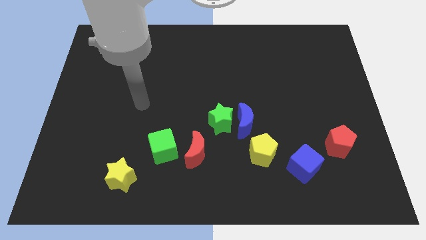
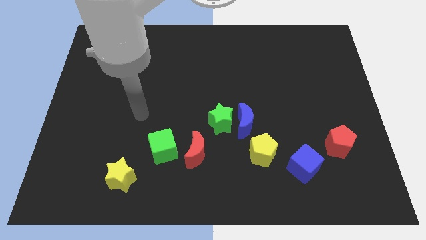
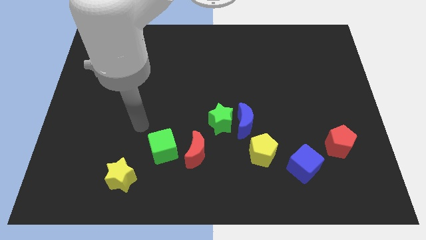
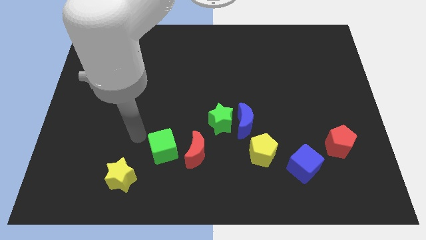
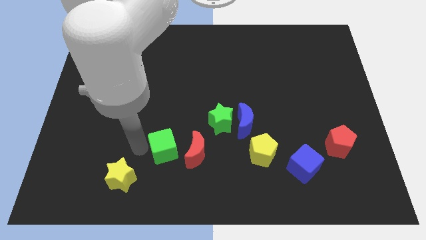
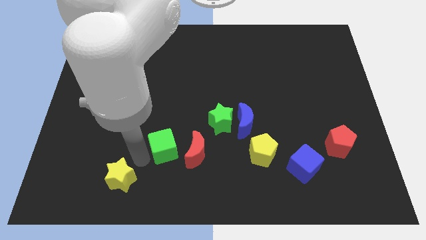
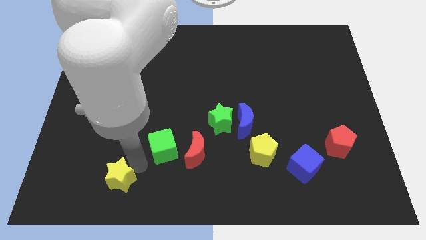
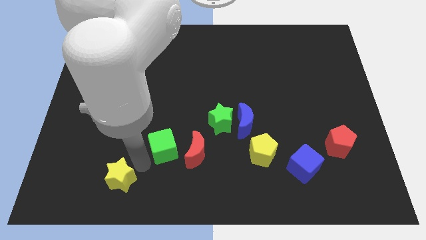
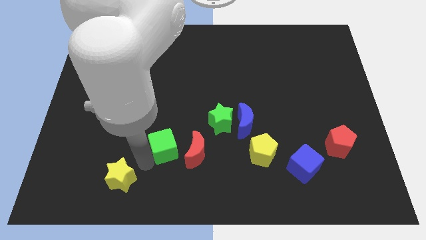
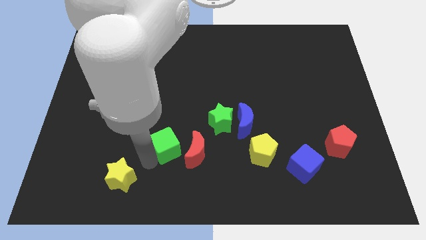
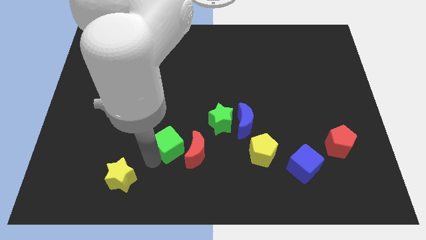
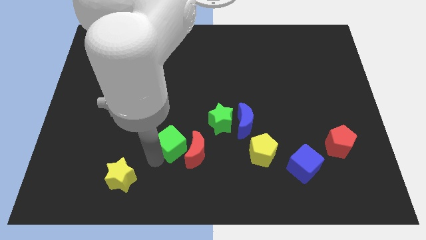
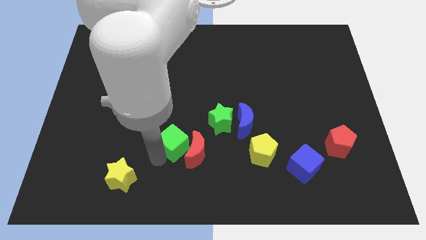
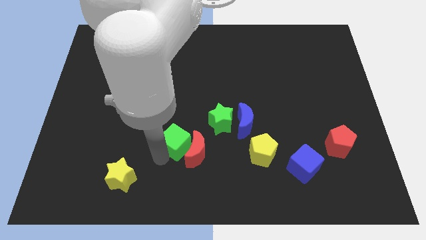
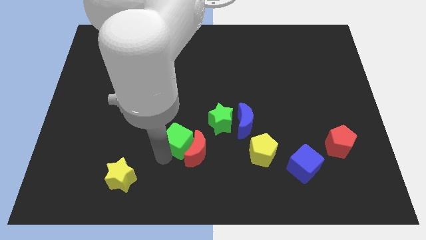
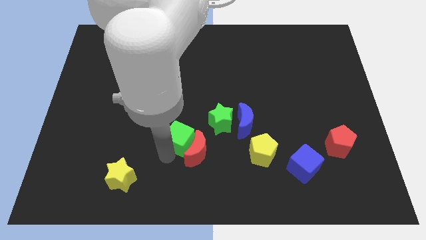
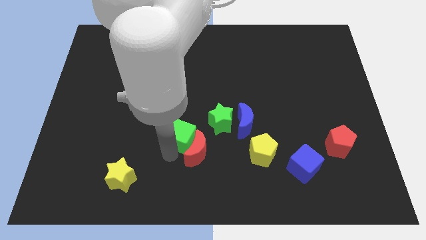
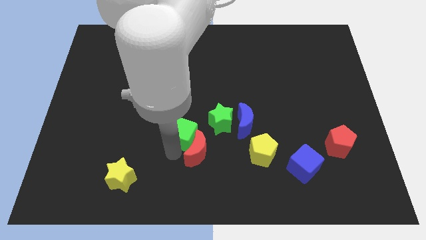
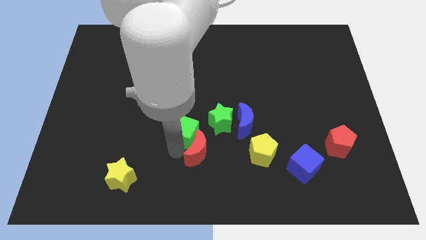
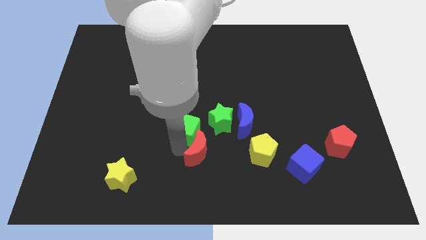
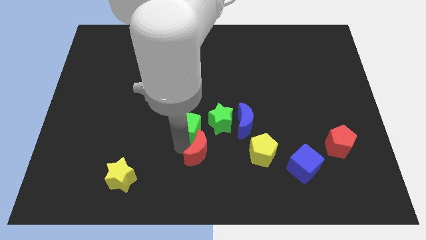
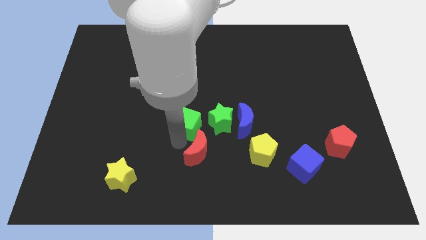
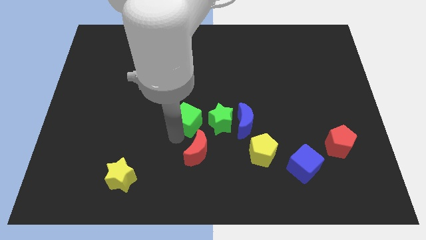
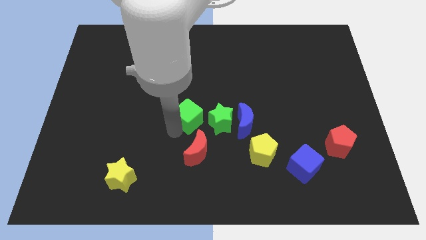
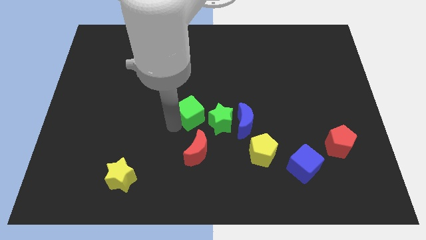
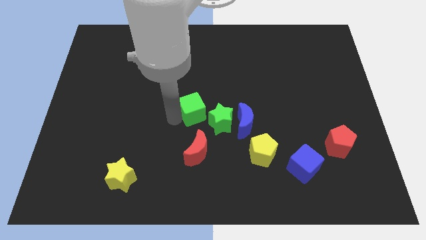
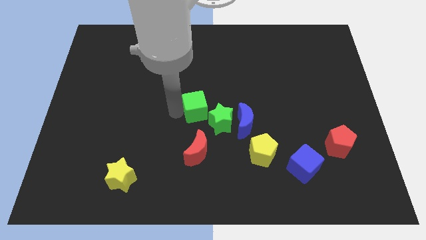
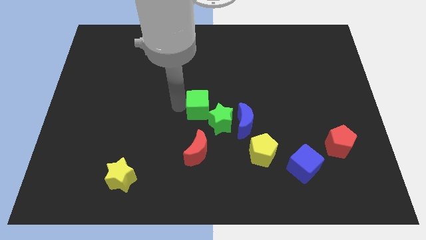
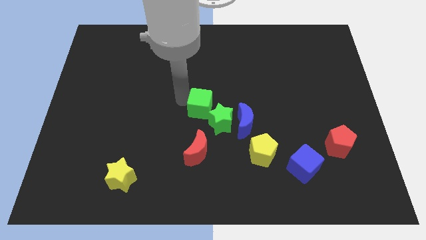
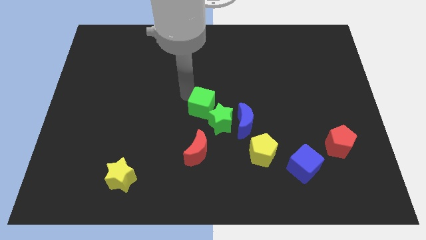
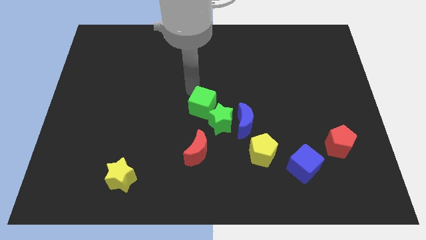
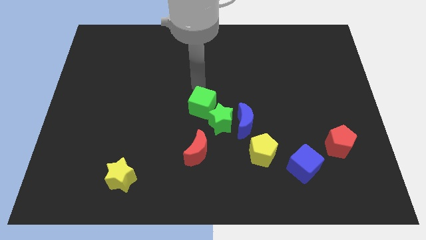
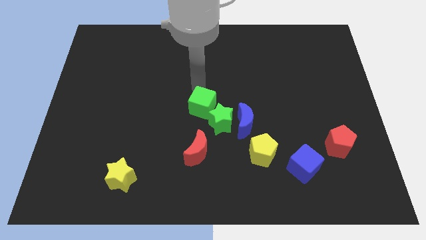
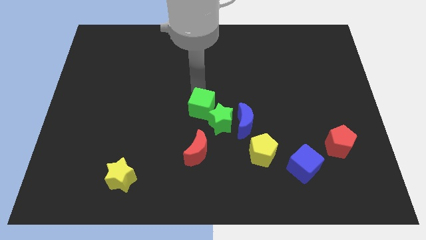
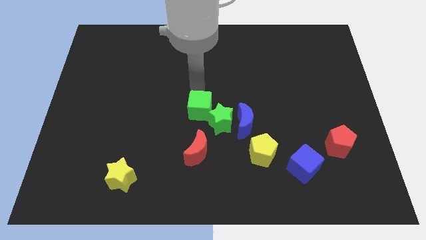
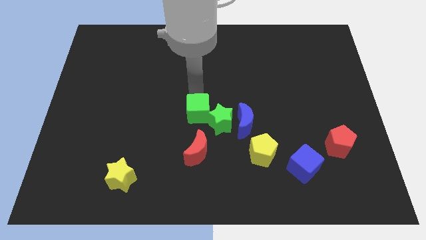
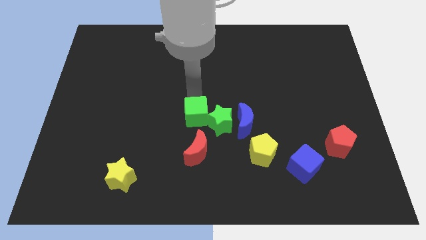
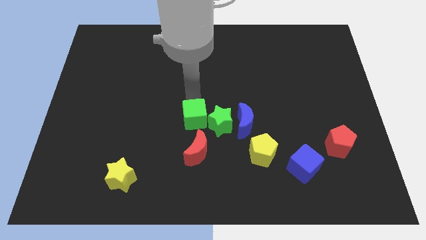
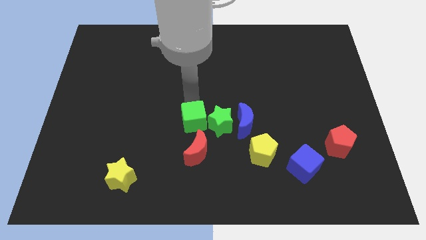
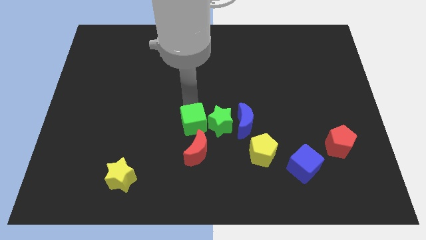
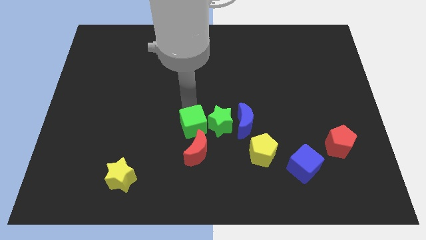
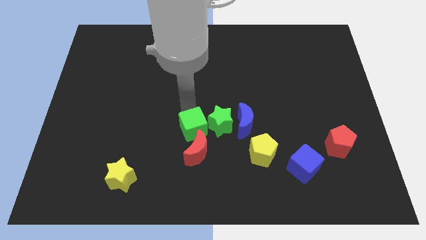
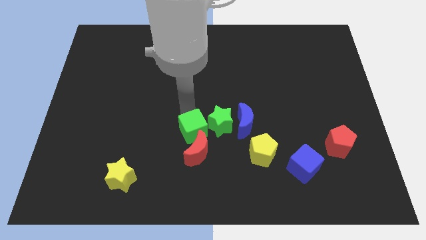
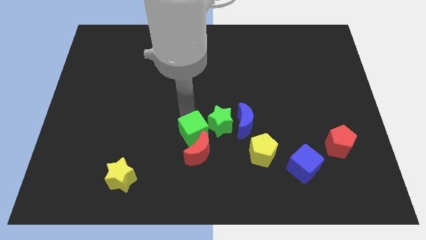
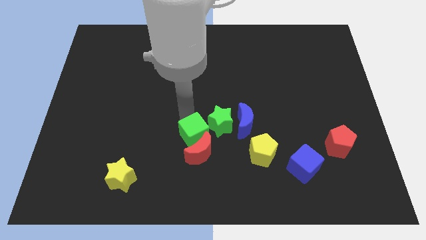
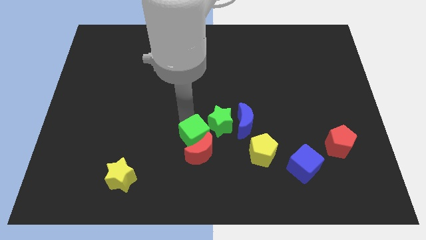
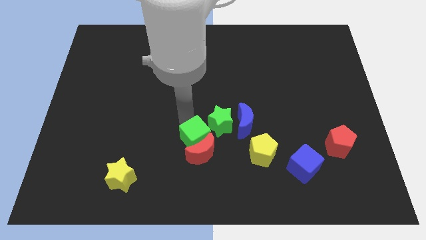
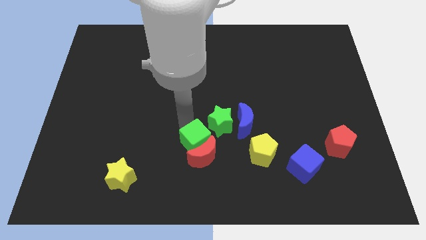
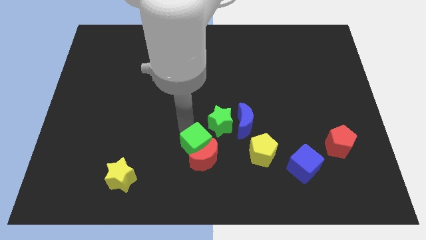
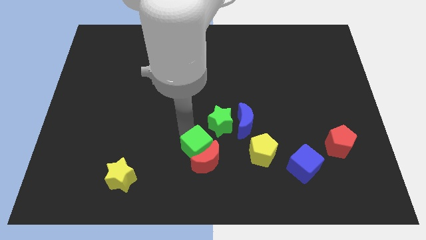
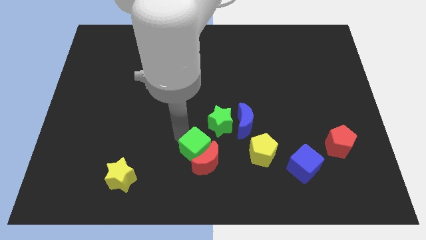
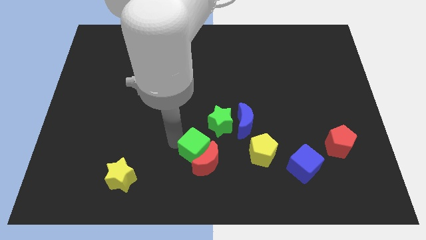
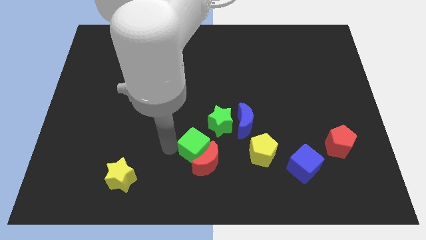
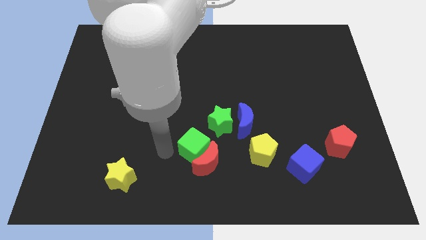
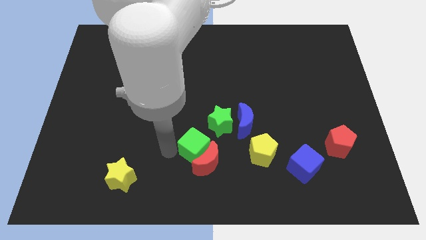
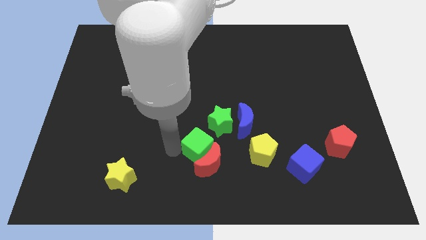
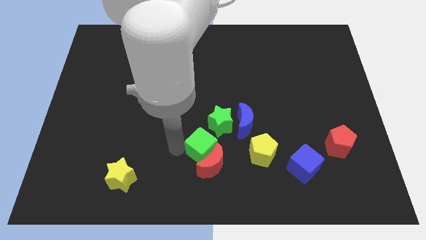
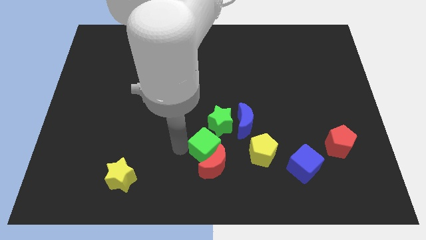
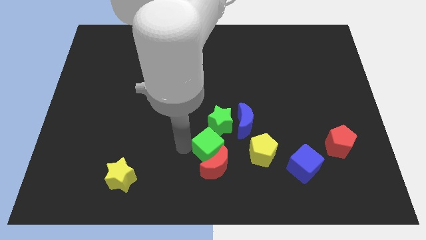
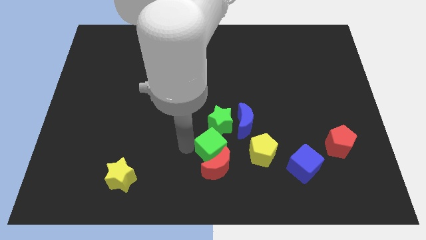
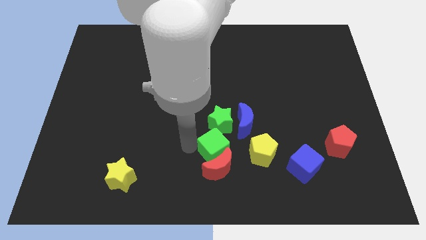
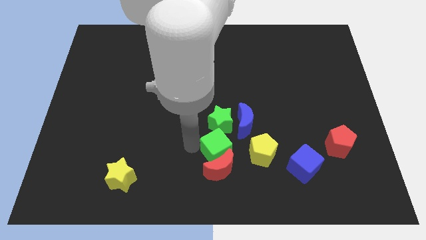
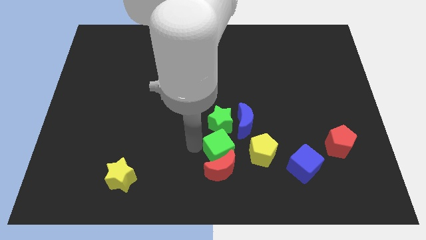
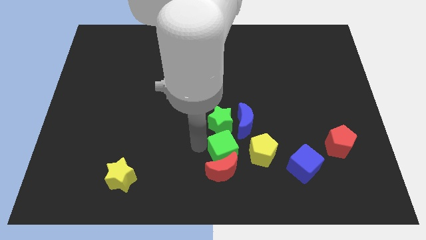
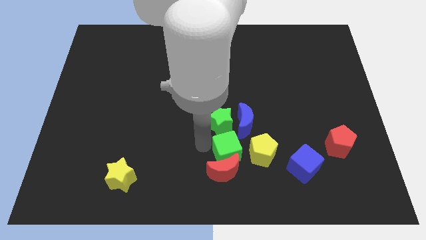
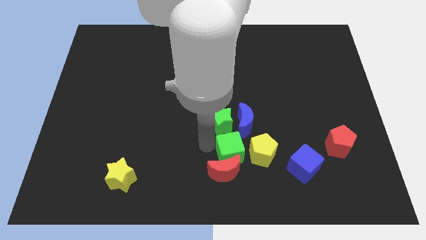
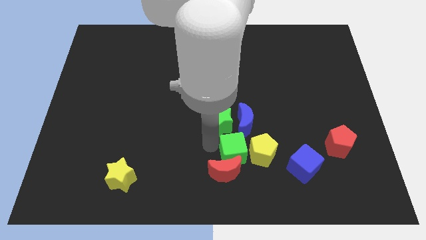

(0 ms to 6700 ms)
slide the green cube to the yellow pentagon
